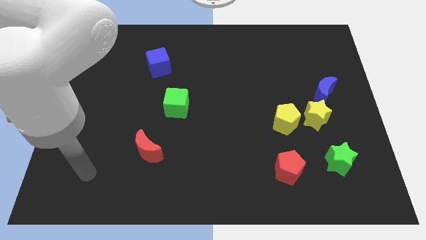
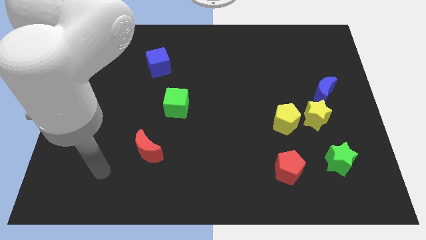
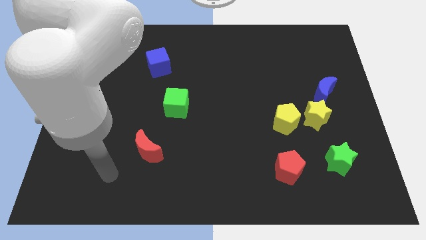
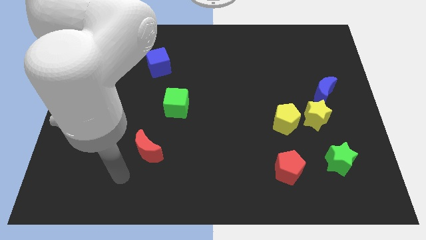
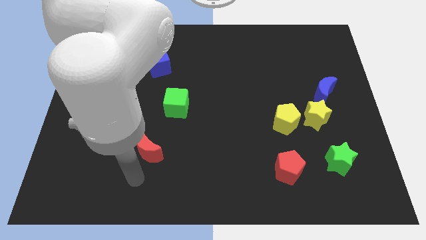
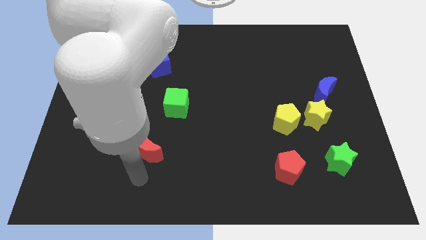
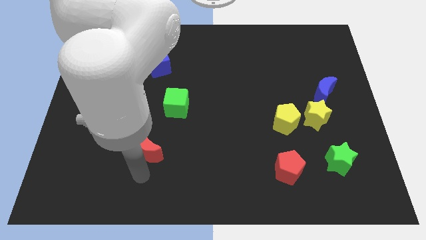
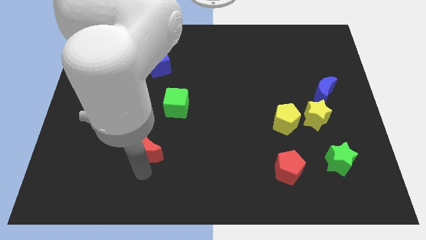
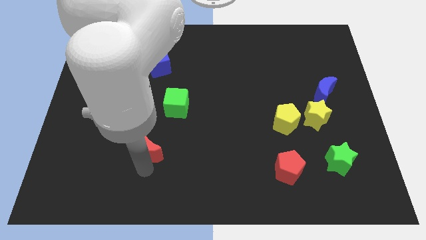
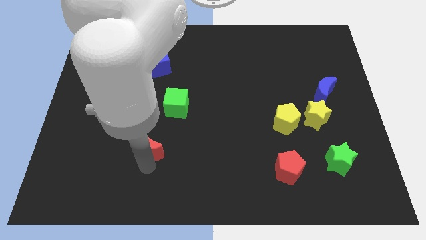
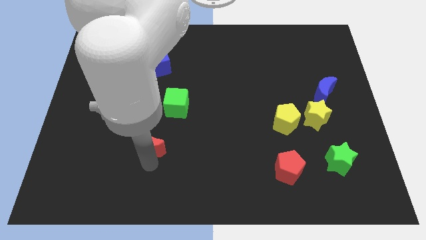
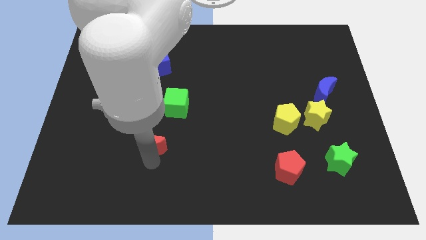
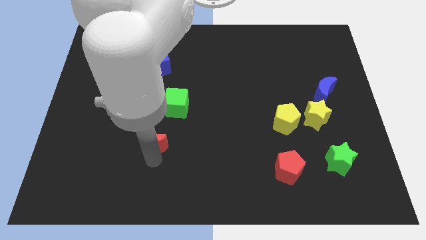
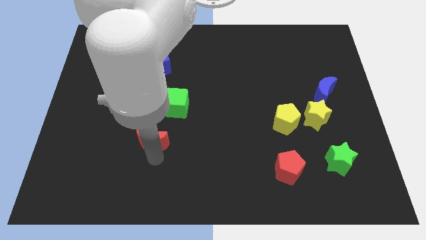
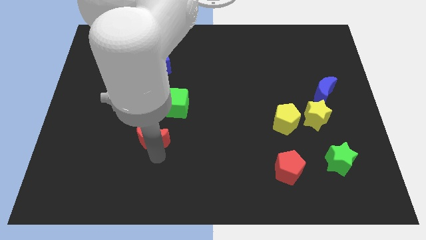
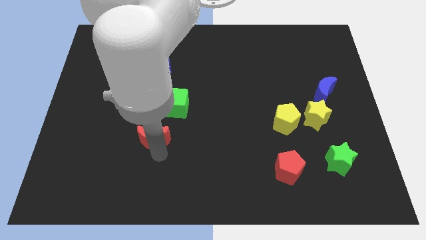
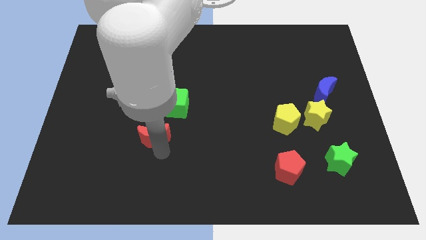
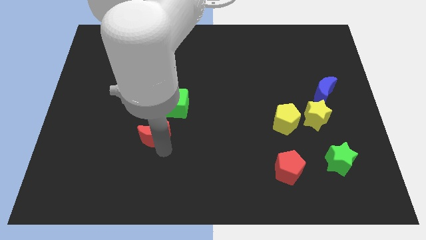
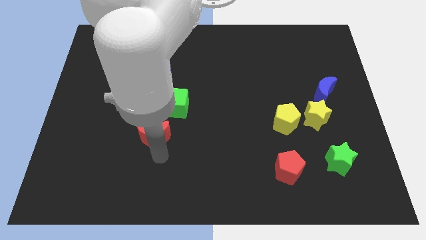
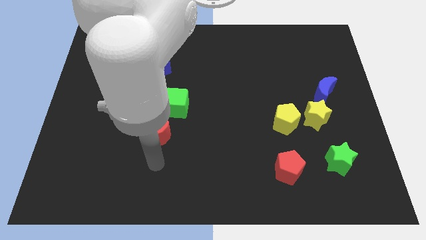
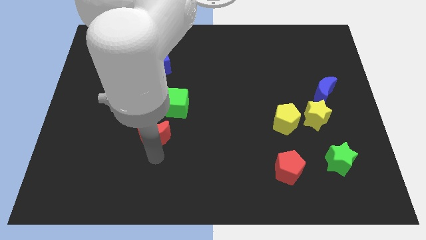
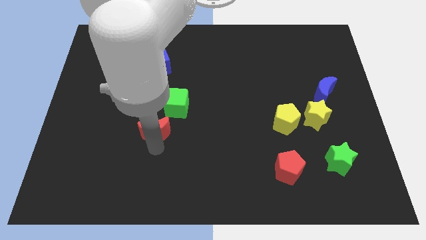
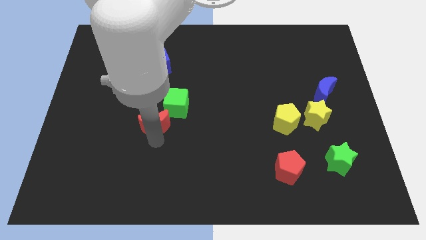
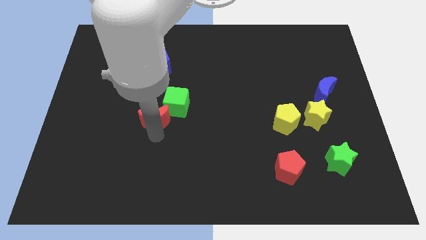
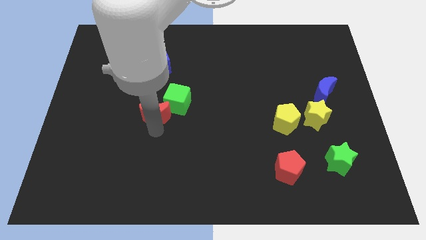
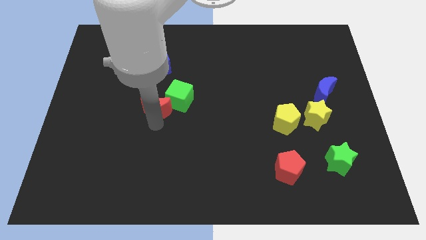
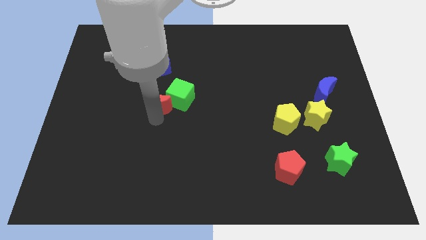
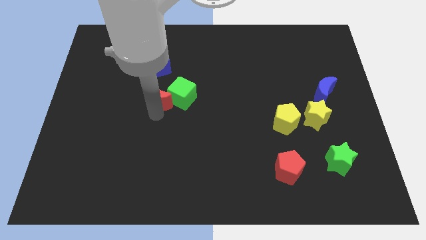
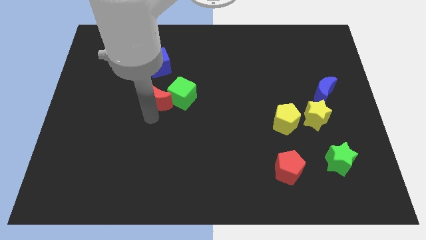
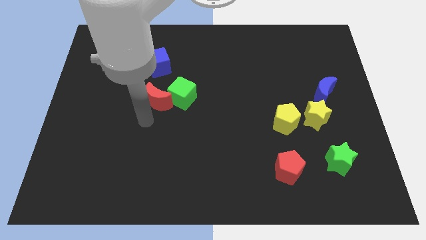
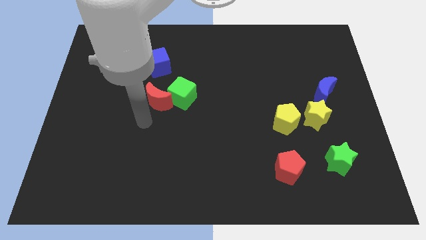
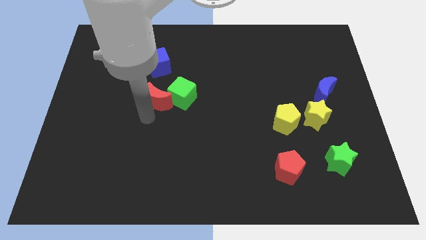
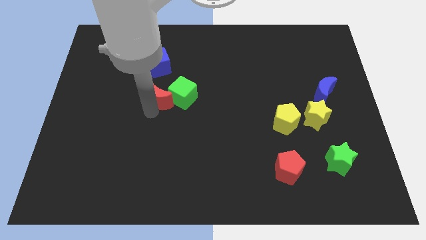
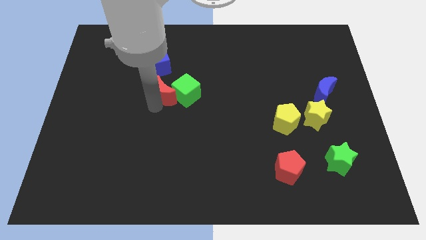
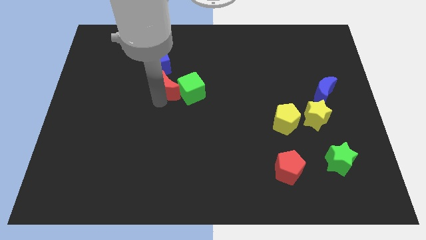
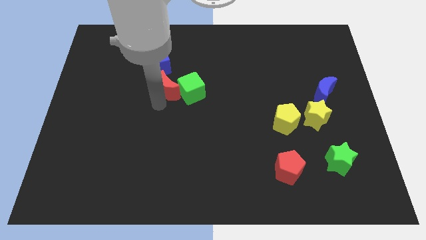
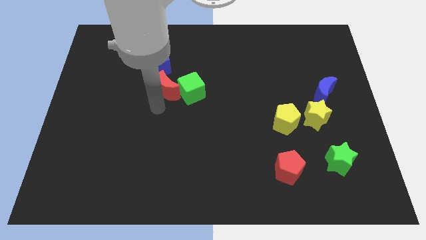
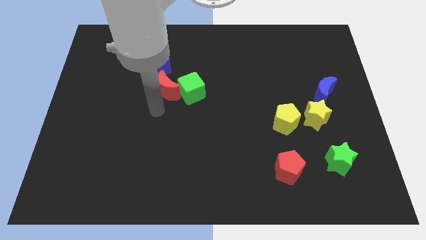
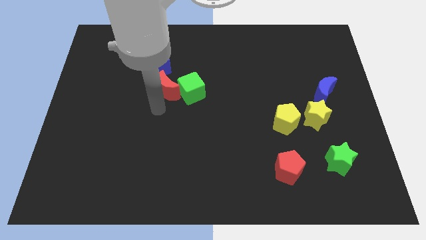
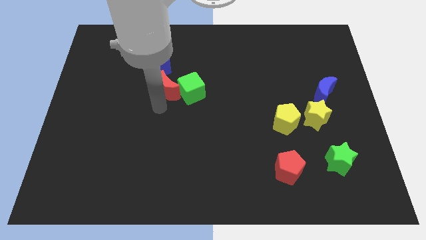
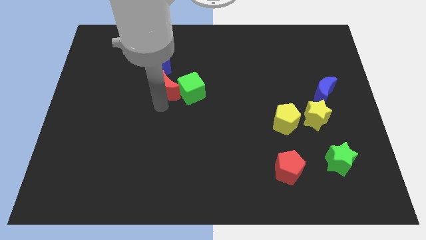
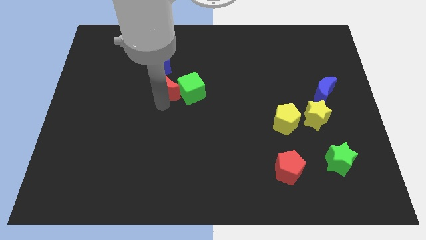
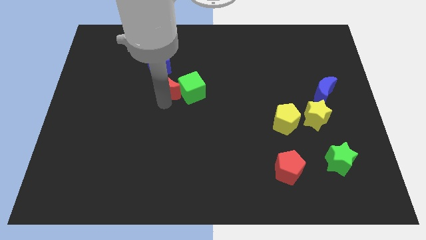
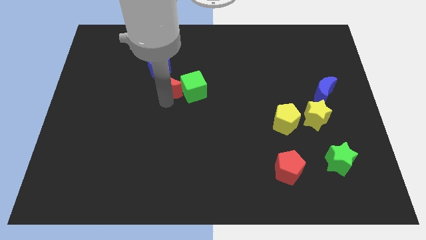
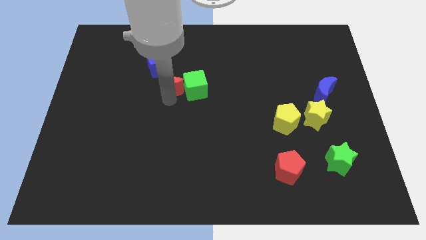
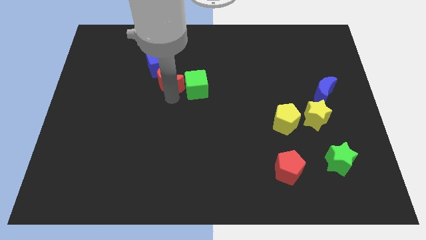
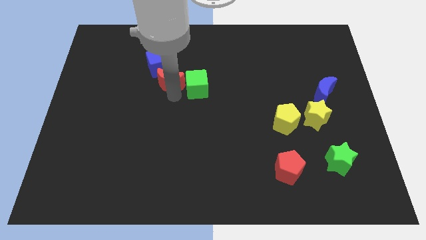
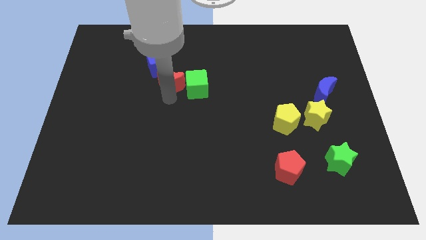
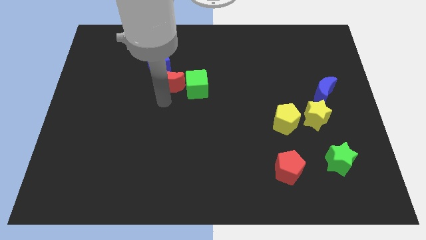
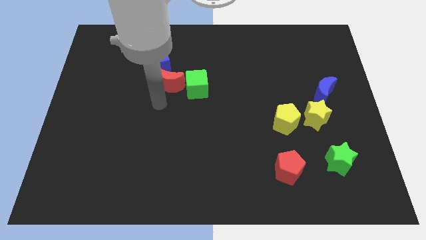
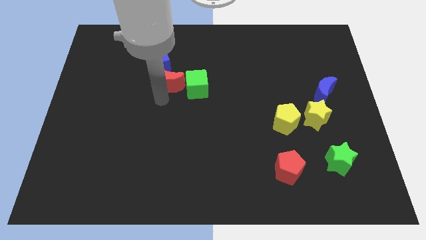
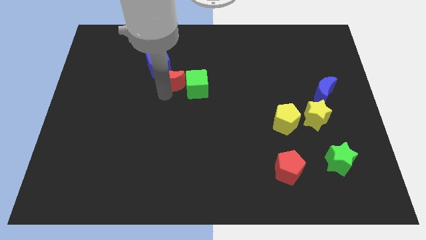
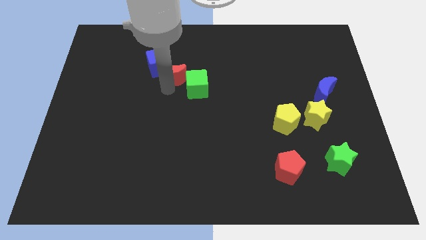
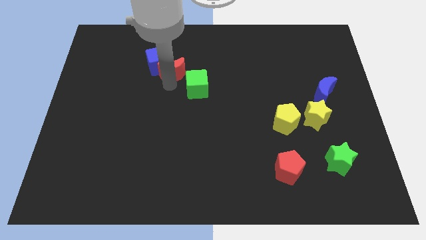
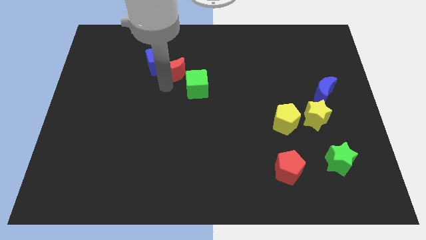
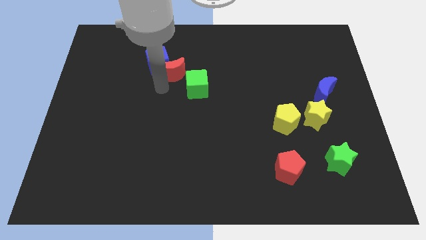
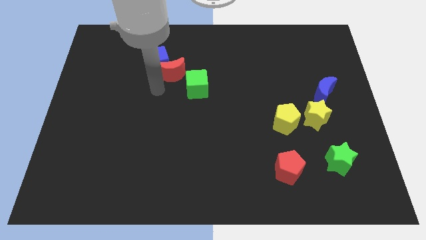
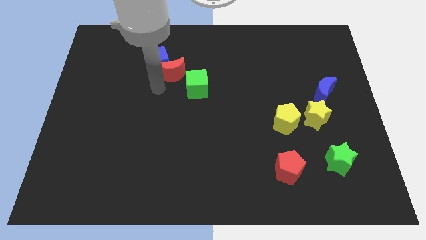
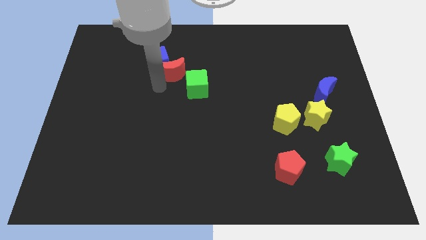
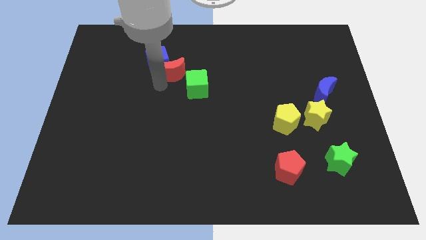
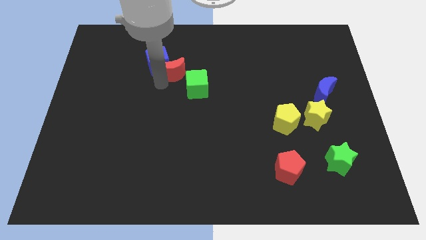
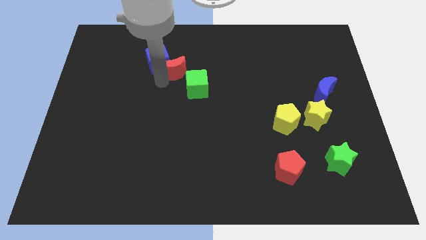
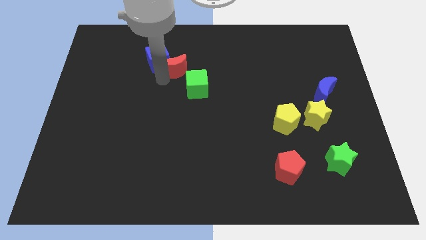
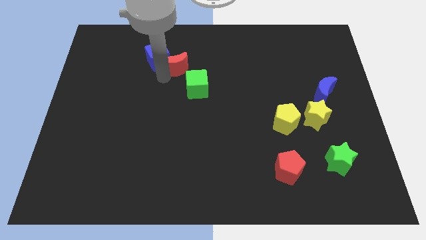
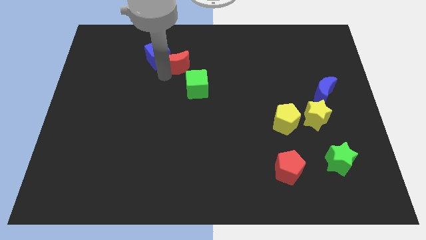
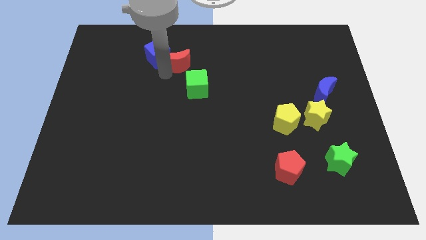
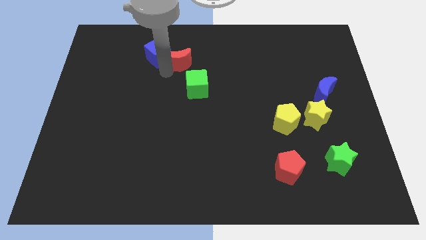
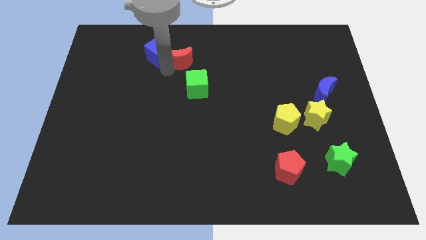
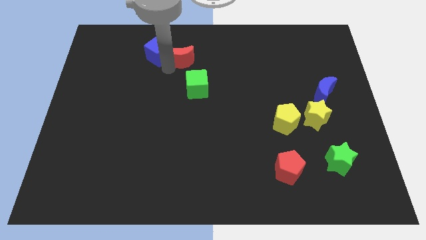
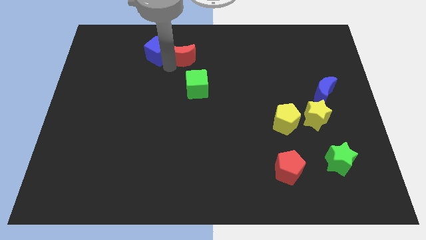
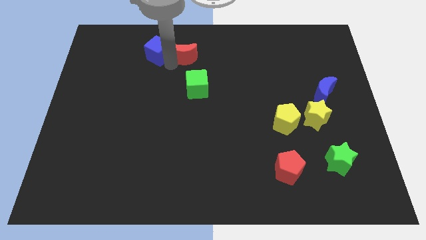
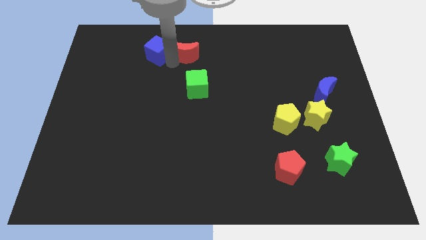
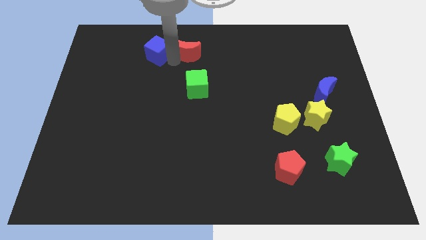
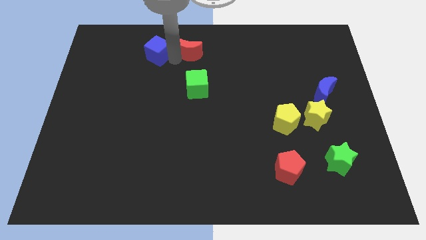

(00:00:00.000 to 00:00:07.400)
move the red moon to the top side
